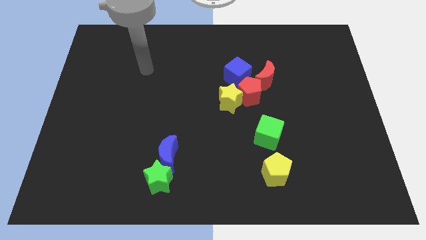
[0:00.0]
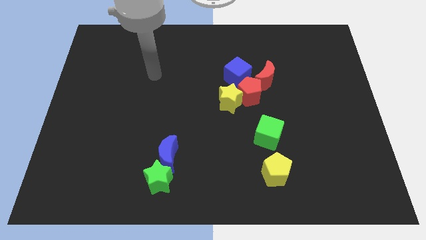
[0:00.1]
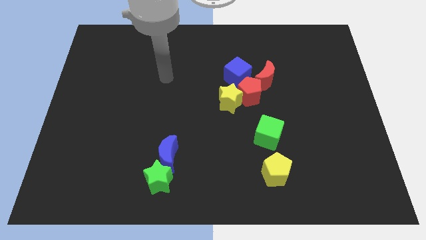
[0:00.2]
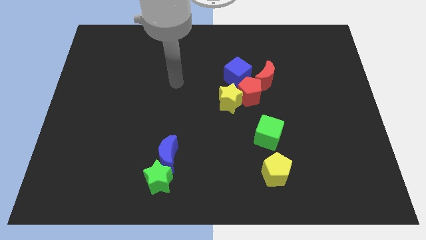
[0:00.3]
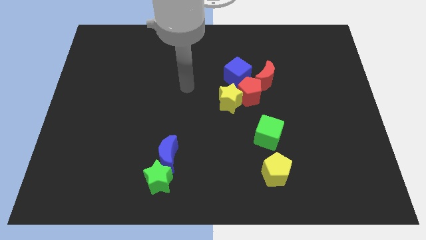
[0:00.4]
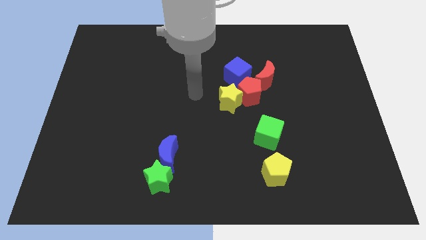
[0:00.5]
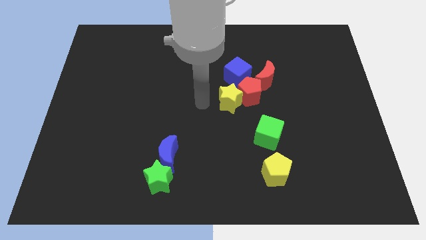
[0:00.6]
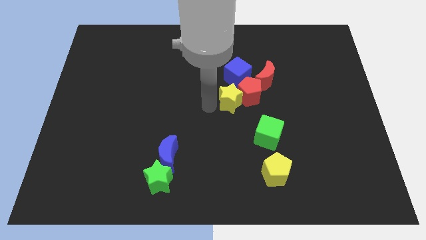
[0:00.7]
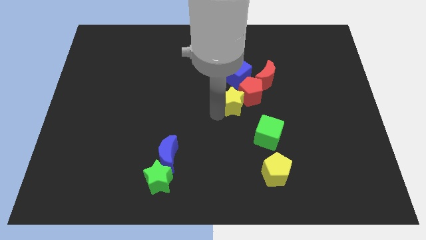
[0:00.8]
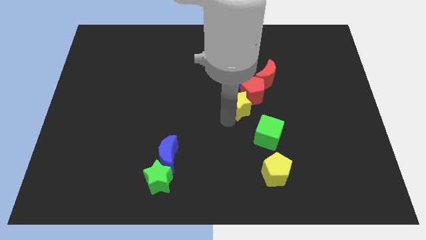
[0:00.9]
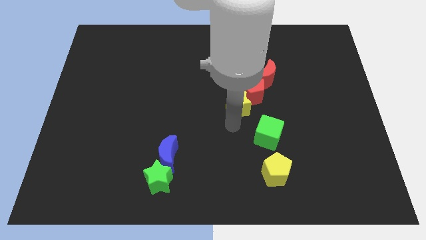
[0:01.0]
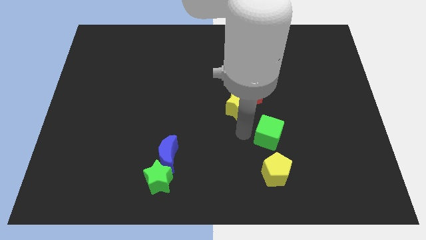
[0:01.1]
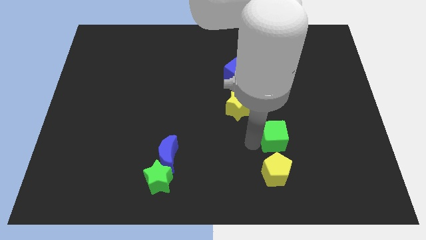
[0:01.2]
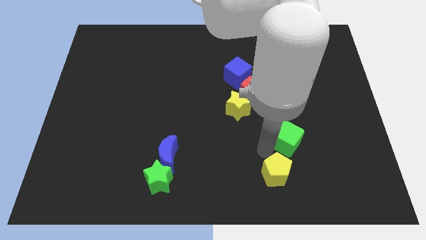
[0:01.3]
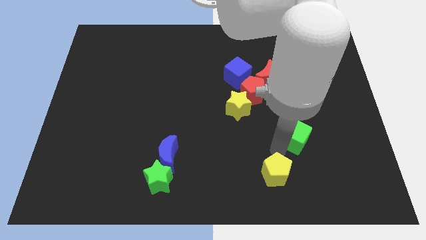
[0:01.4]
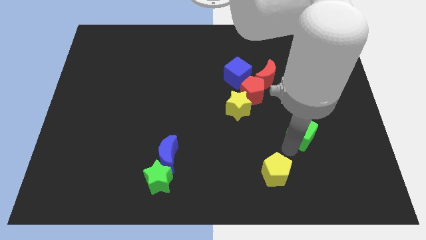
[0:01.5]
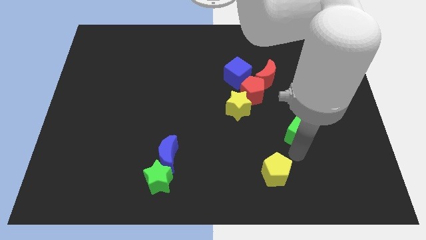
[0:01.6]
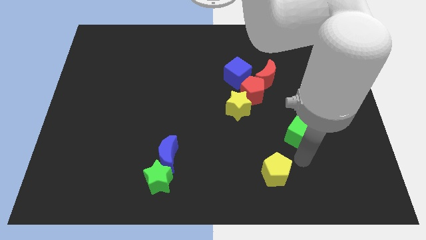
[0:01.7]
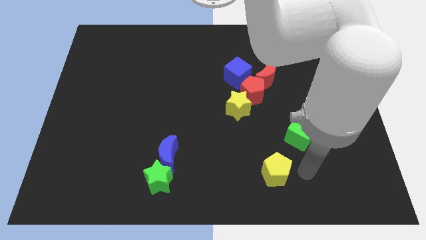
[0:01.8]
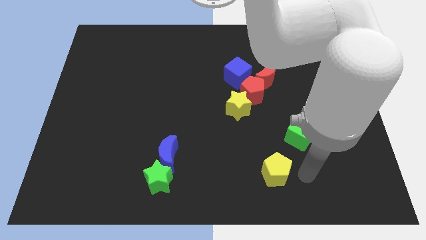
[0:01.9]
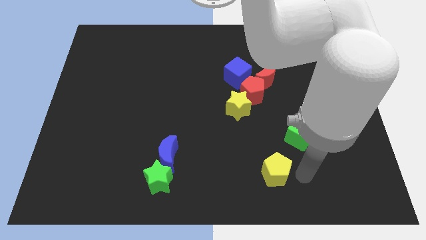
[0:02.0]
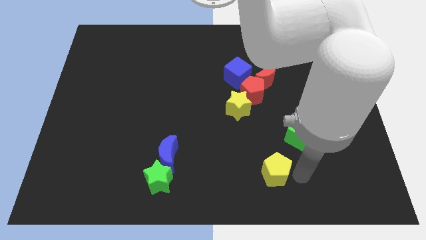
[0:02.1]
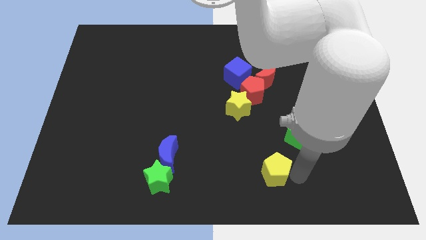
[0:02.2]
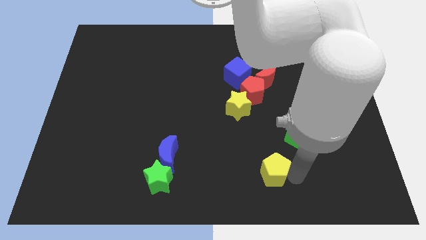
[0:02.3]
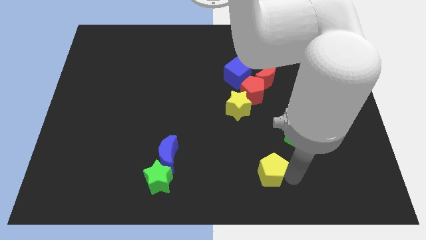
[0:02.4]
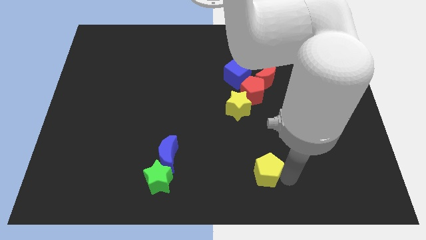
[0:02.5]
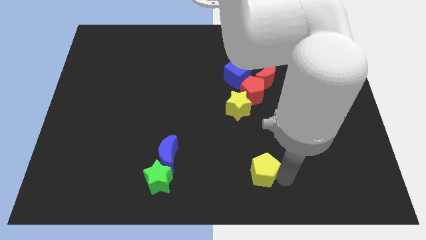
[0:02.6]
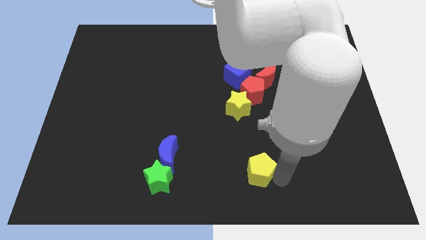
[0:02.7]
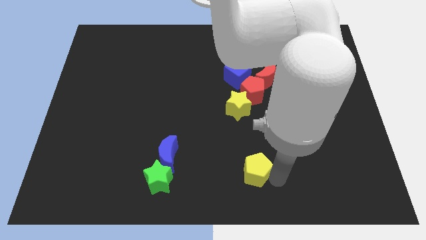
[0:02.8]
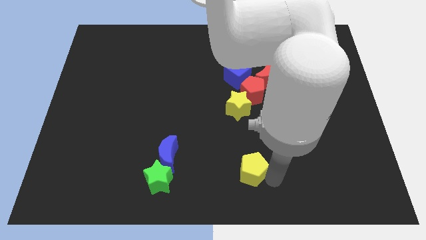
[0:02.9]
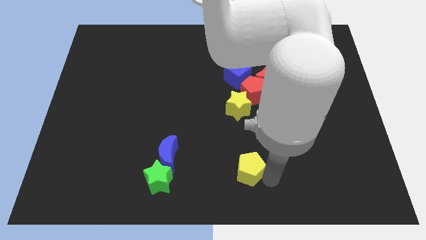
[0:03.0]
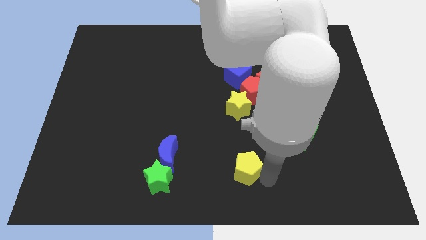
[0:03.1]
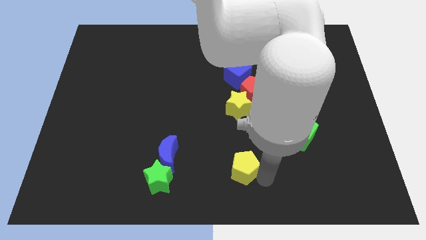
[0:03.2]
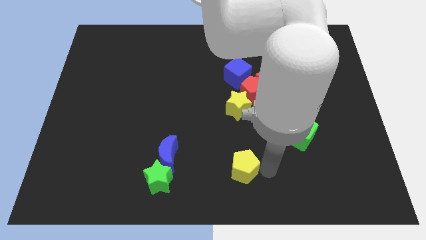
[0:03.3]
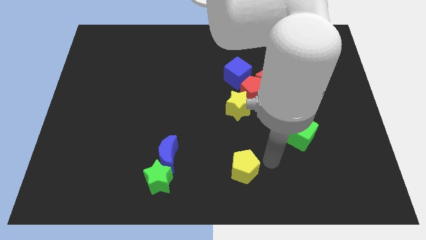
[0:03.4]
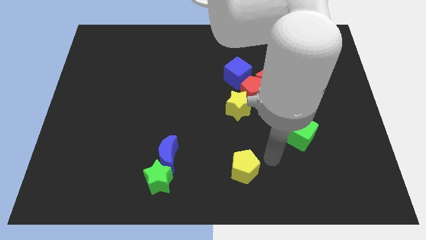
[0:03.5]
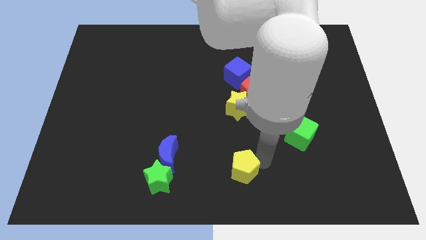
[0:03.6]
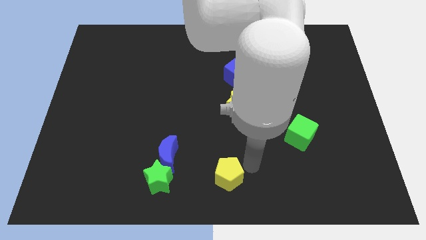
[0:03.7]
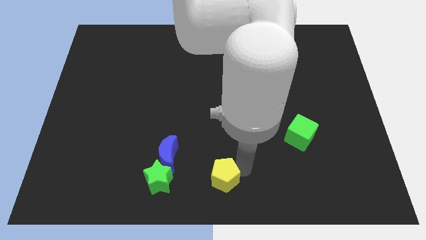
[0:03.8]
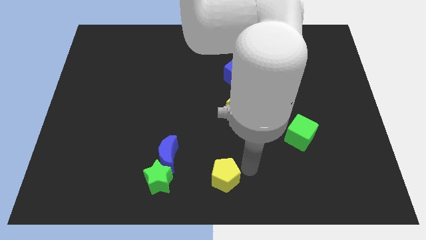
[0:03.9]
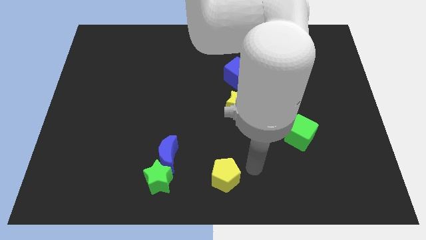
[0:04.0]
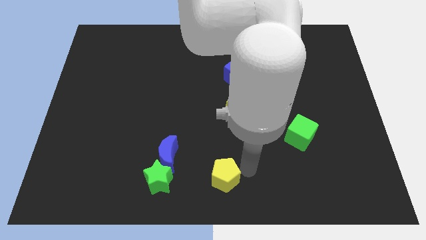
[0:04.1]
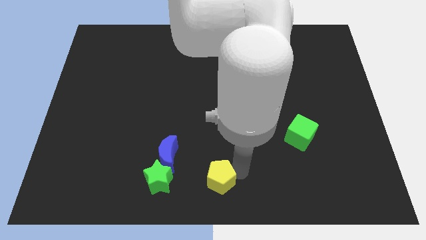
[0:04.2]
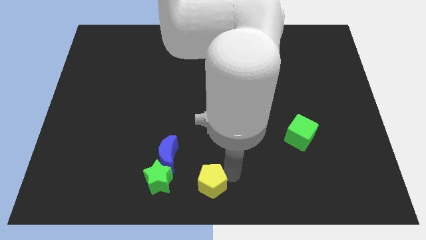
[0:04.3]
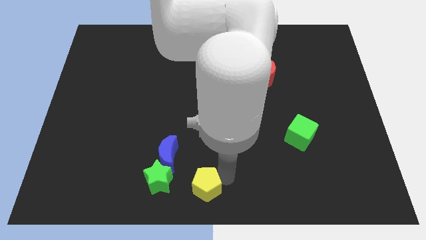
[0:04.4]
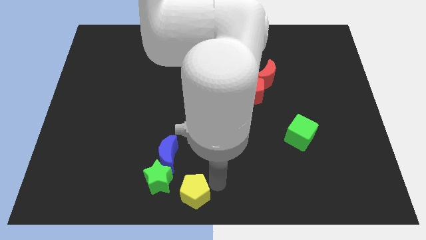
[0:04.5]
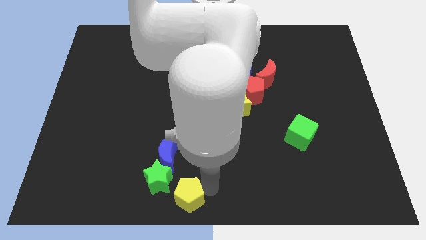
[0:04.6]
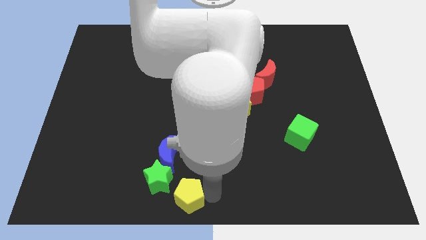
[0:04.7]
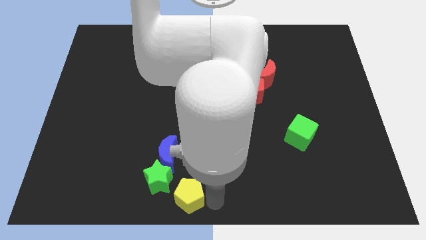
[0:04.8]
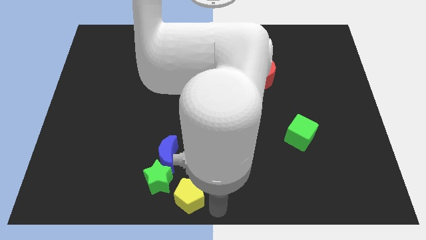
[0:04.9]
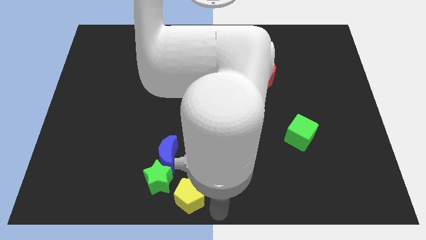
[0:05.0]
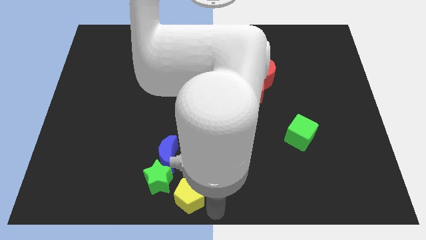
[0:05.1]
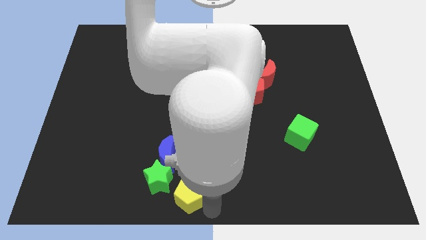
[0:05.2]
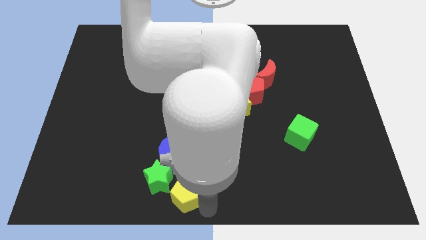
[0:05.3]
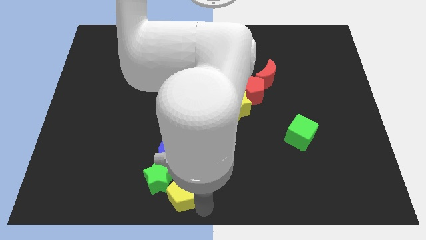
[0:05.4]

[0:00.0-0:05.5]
move the yellow pentagon to the green star

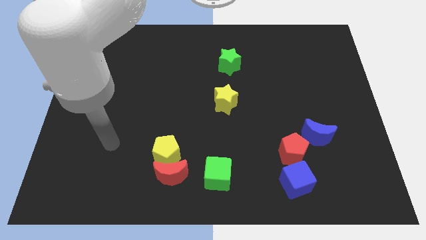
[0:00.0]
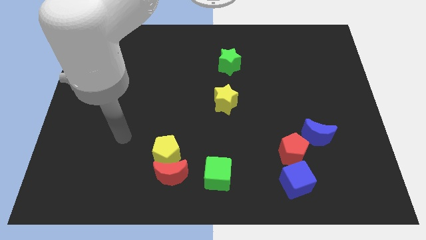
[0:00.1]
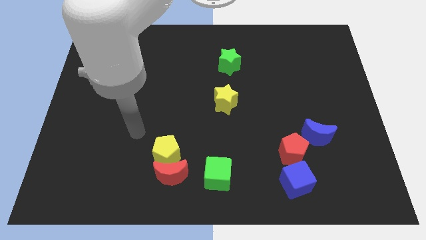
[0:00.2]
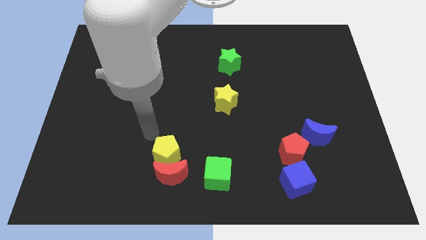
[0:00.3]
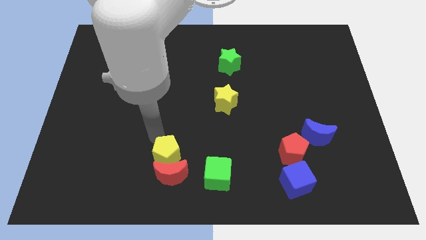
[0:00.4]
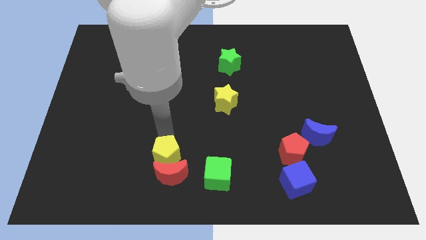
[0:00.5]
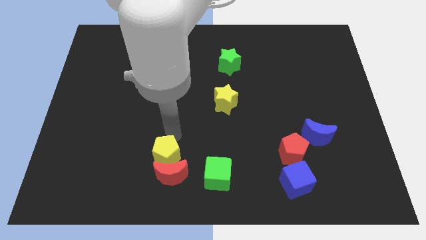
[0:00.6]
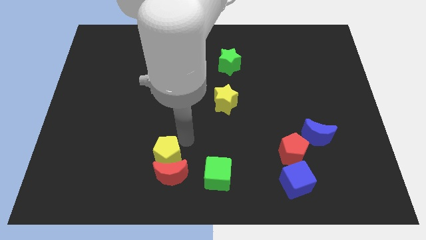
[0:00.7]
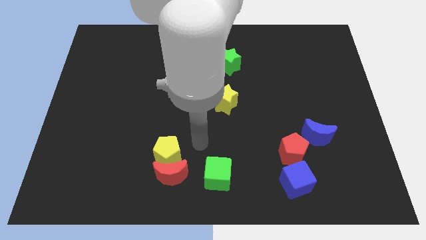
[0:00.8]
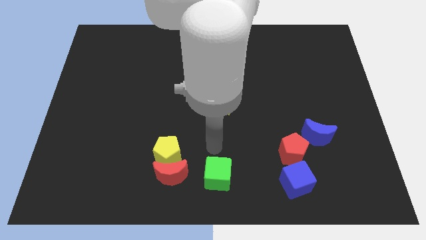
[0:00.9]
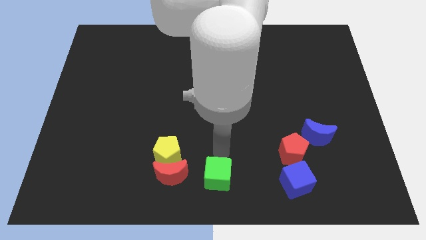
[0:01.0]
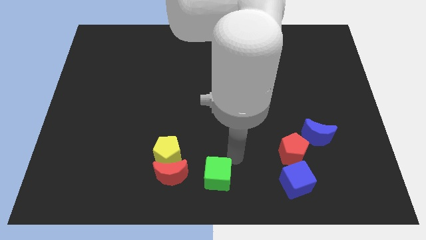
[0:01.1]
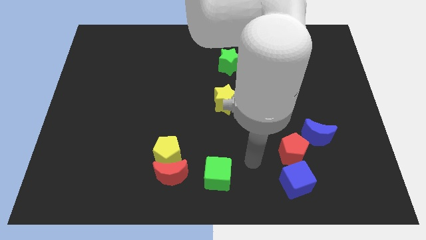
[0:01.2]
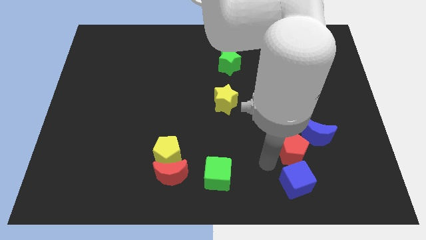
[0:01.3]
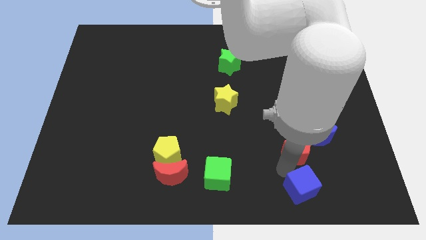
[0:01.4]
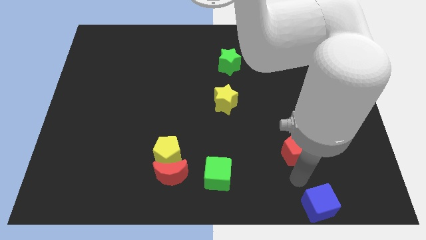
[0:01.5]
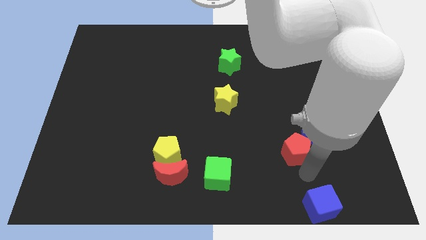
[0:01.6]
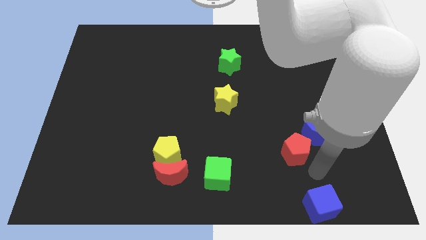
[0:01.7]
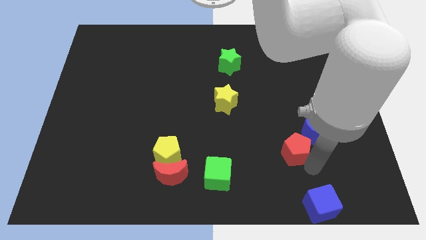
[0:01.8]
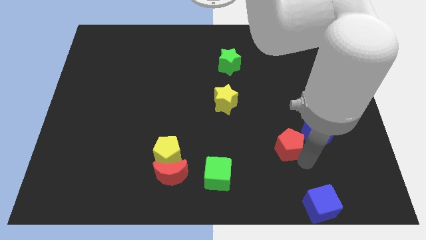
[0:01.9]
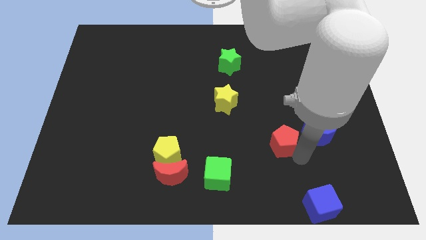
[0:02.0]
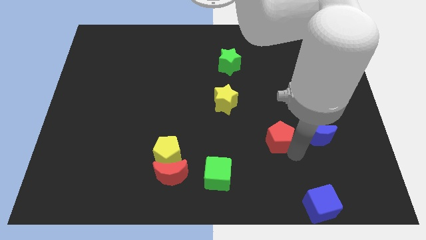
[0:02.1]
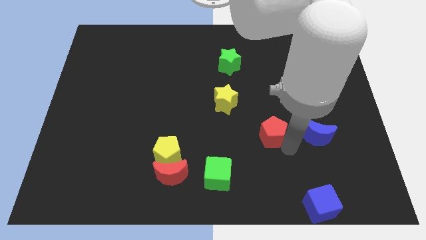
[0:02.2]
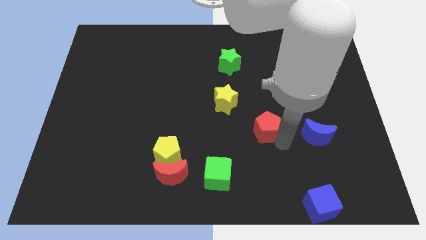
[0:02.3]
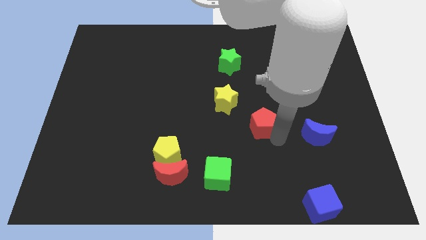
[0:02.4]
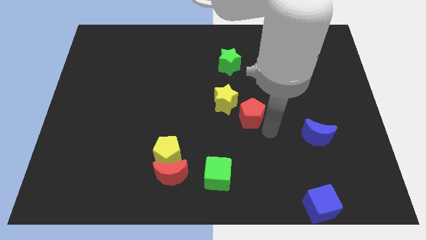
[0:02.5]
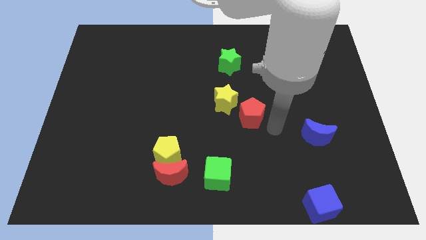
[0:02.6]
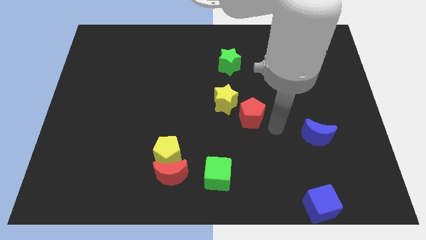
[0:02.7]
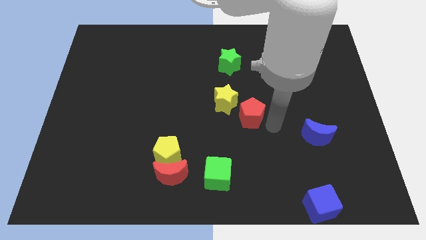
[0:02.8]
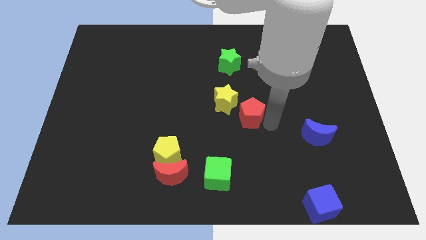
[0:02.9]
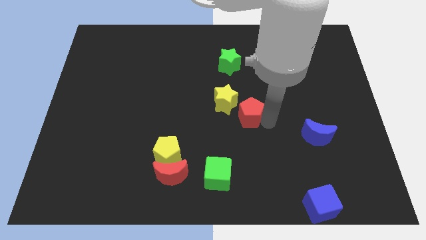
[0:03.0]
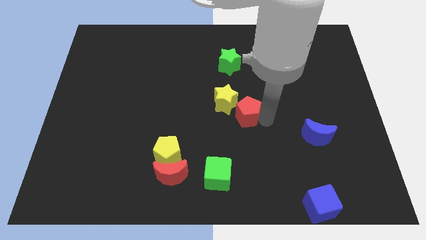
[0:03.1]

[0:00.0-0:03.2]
move the red pentagon to the yellow star
